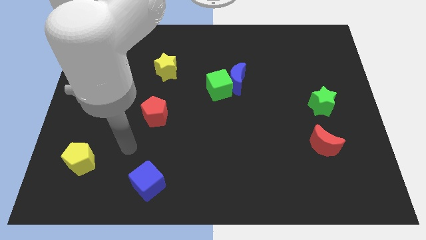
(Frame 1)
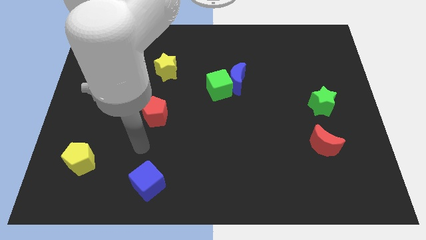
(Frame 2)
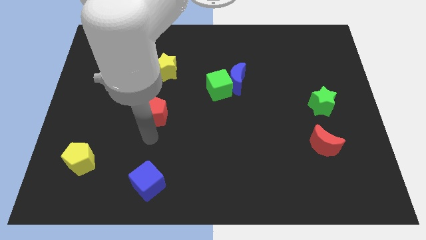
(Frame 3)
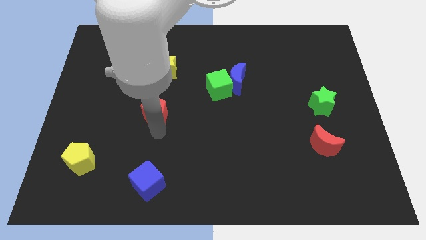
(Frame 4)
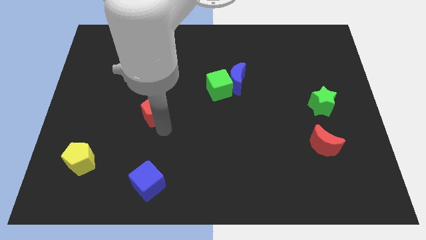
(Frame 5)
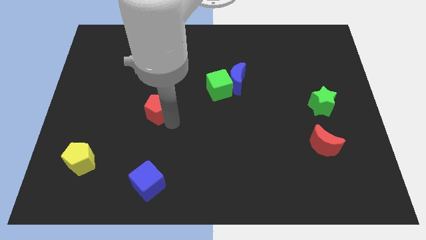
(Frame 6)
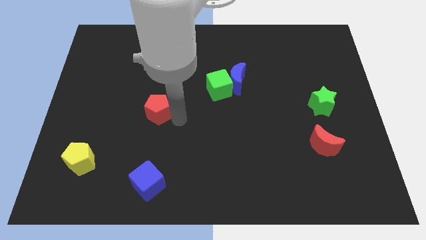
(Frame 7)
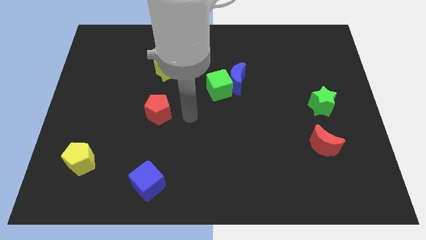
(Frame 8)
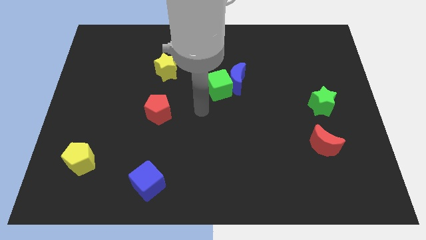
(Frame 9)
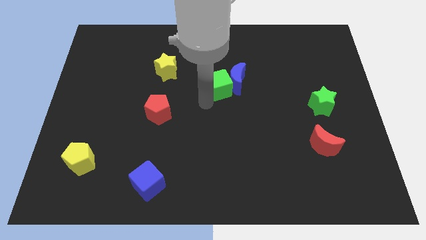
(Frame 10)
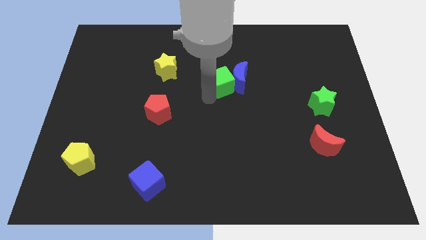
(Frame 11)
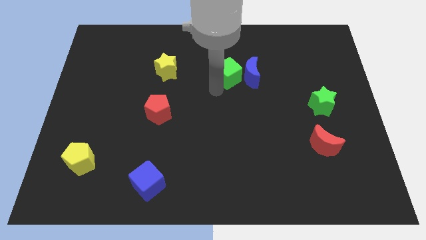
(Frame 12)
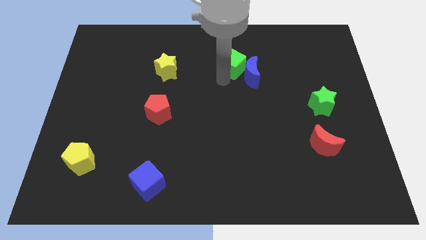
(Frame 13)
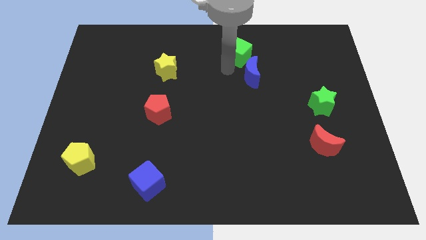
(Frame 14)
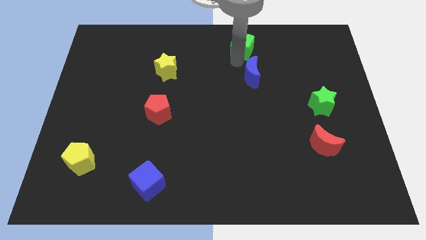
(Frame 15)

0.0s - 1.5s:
move the blue moon away from the green cube

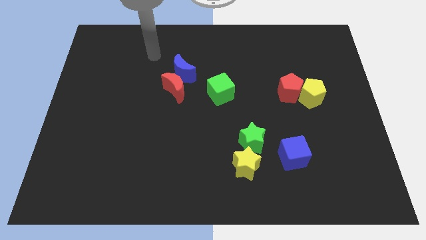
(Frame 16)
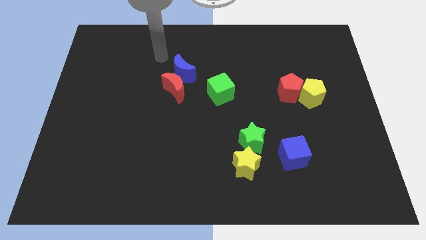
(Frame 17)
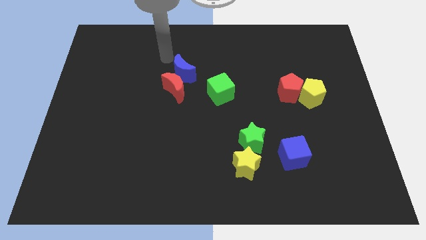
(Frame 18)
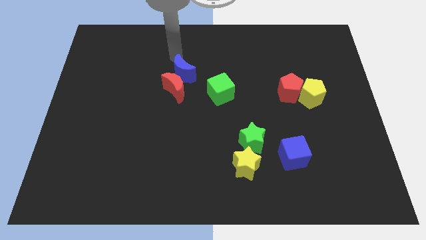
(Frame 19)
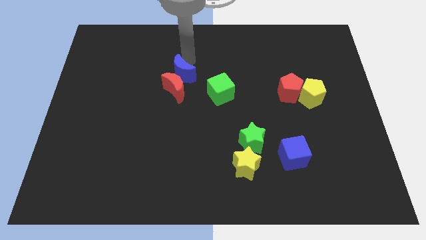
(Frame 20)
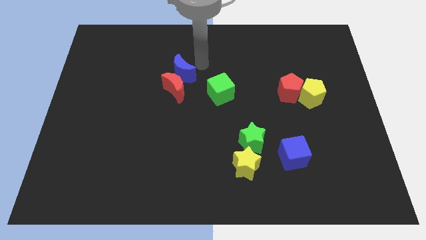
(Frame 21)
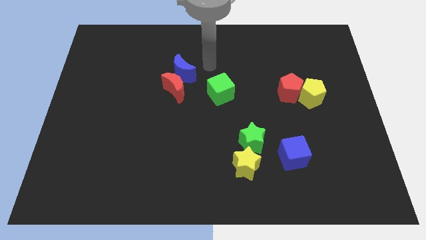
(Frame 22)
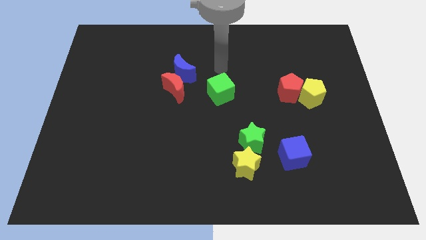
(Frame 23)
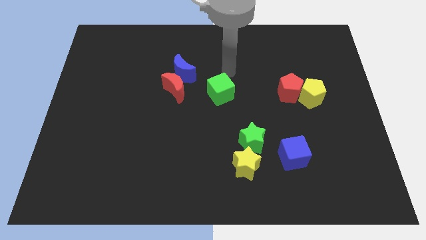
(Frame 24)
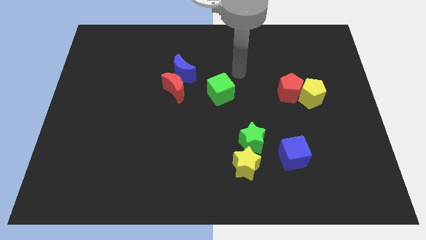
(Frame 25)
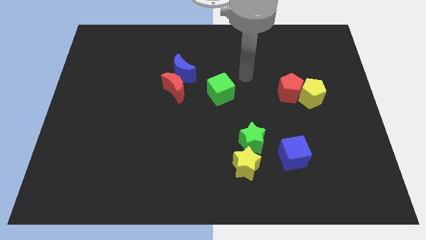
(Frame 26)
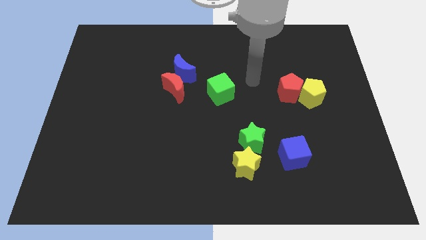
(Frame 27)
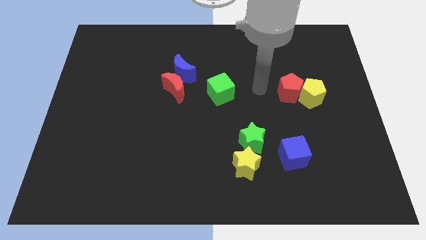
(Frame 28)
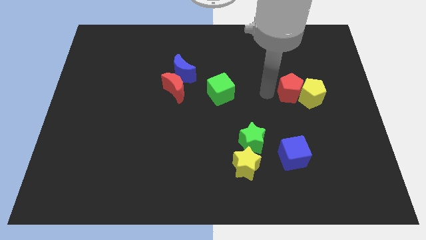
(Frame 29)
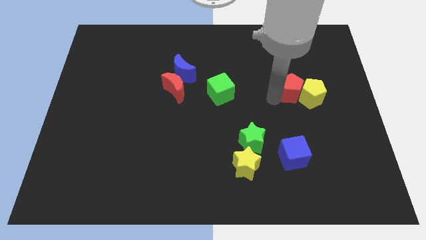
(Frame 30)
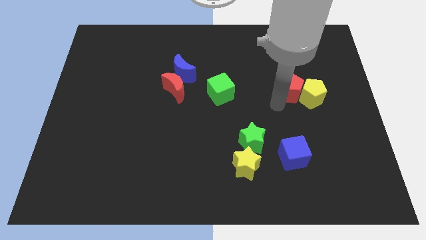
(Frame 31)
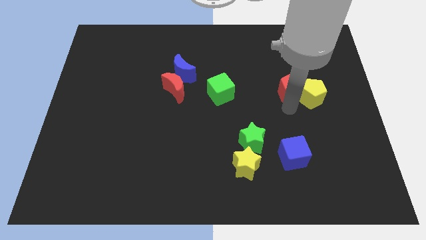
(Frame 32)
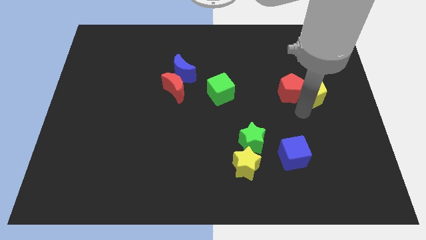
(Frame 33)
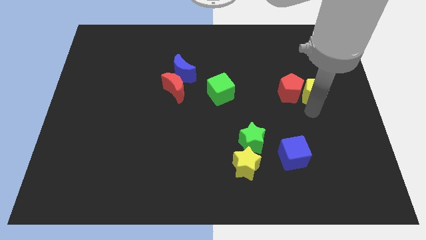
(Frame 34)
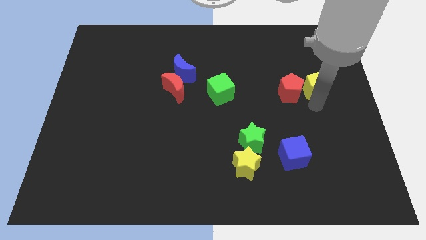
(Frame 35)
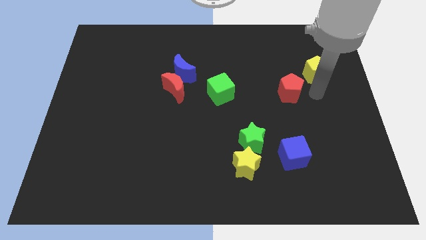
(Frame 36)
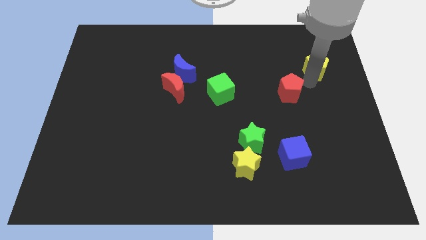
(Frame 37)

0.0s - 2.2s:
pull the red pentagon apart from the yellow pentagon

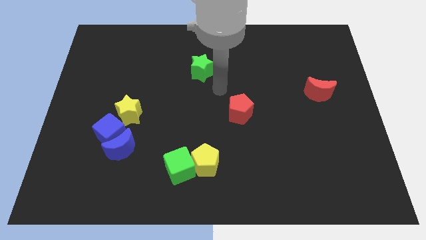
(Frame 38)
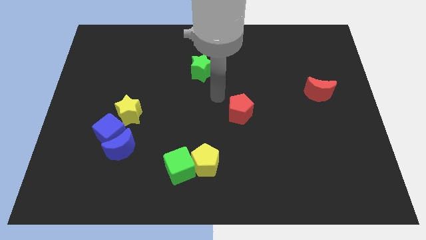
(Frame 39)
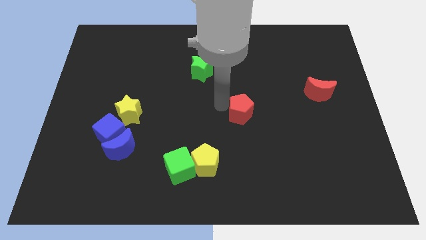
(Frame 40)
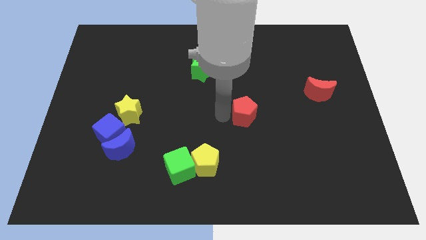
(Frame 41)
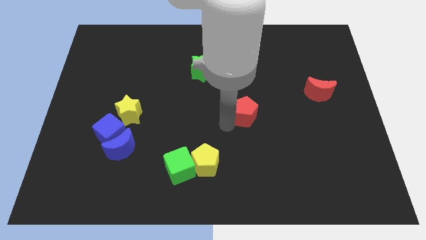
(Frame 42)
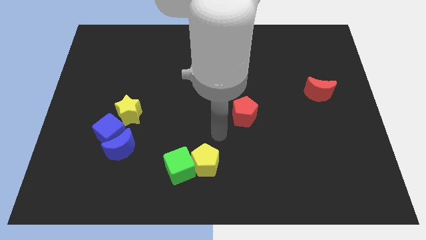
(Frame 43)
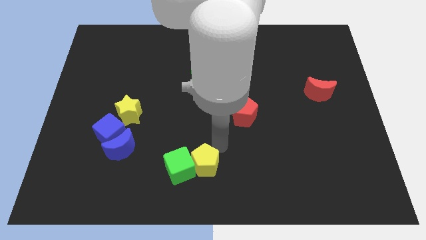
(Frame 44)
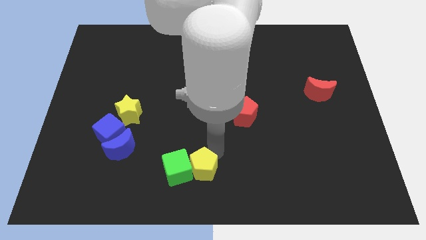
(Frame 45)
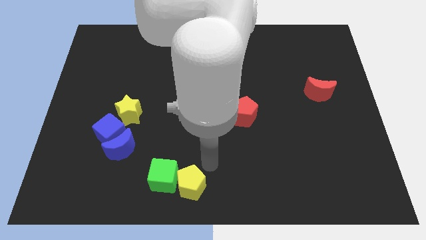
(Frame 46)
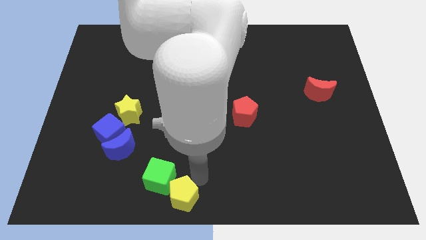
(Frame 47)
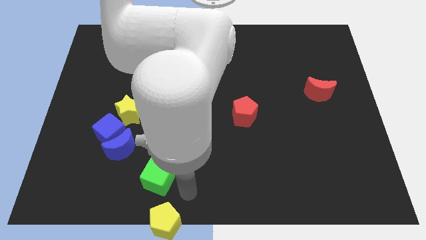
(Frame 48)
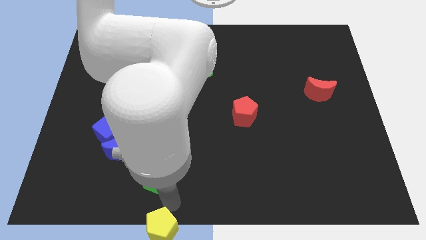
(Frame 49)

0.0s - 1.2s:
separate the green cube from the yellow pentagon

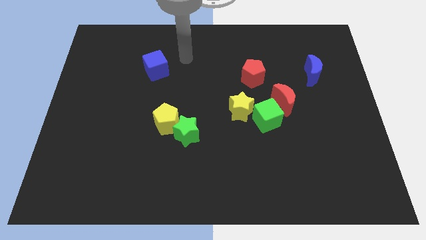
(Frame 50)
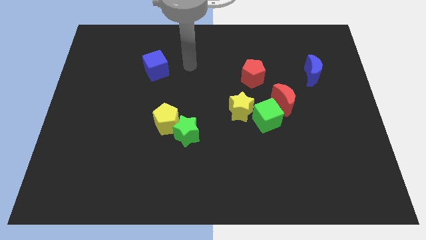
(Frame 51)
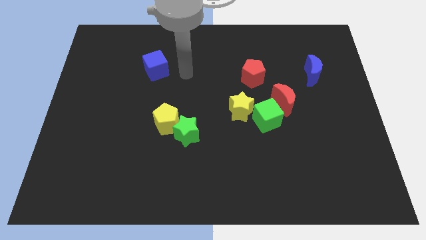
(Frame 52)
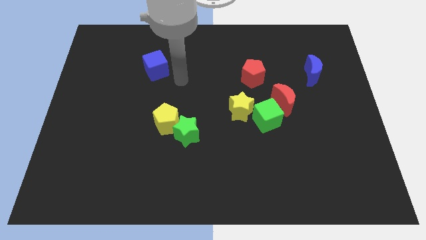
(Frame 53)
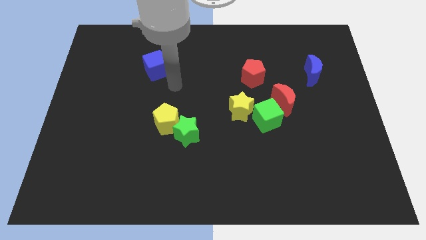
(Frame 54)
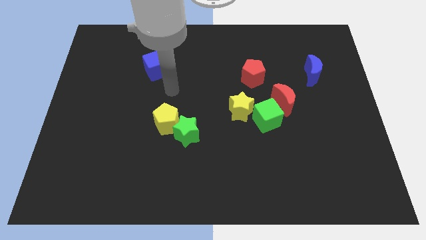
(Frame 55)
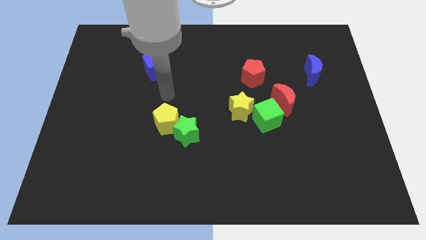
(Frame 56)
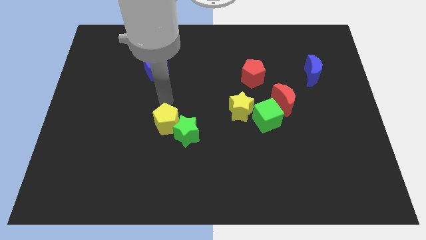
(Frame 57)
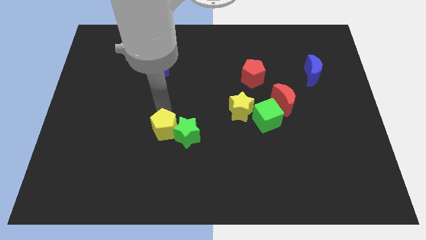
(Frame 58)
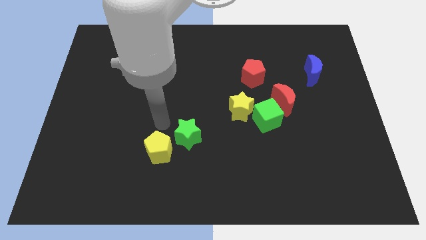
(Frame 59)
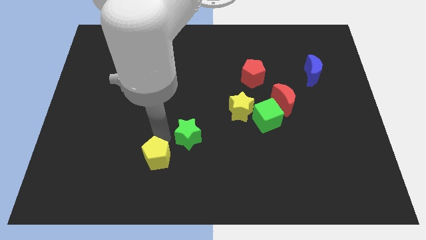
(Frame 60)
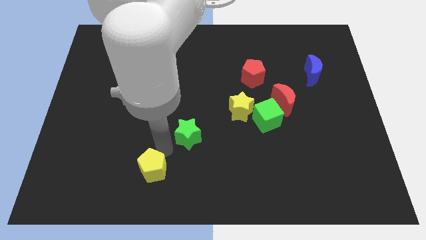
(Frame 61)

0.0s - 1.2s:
separate the green star from the yellow pentagon

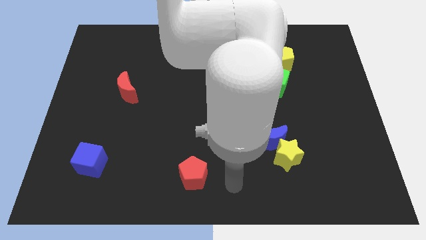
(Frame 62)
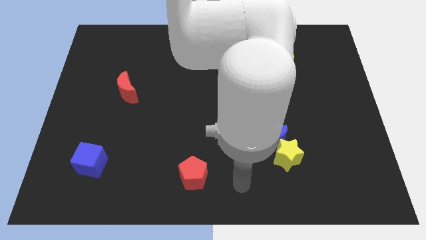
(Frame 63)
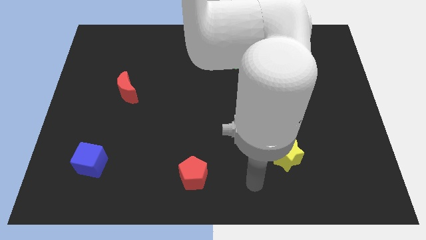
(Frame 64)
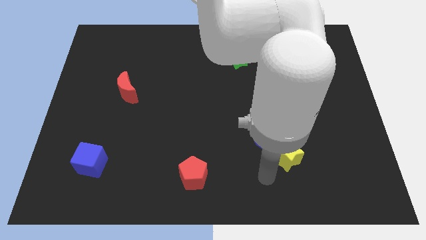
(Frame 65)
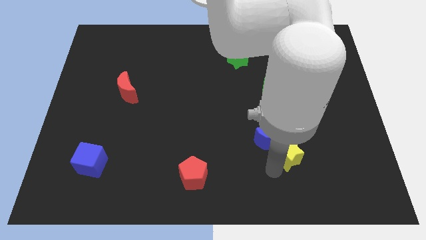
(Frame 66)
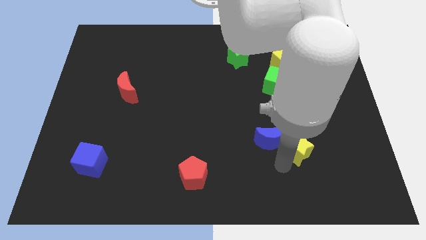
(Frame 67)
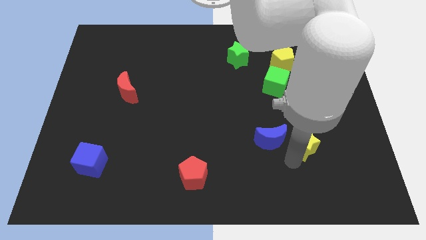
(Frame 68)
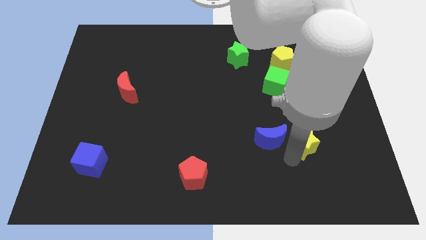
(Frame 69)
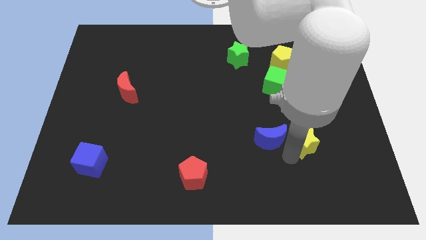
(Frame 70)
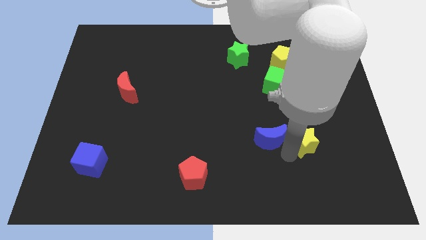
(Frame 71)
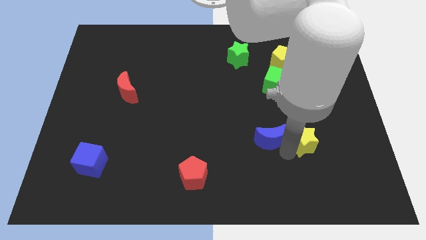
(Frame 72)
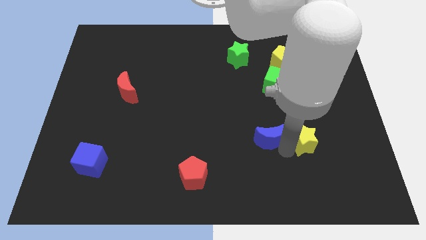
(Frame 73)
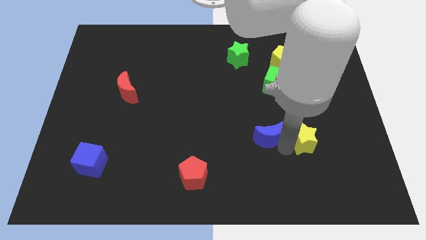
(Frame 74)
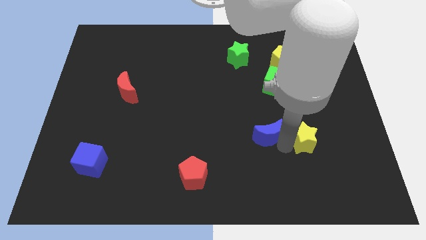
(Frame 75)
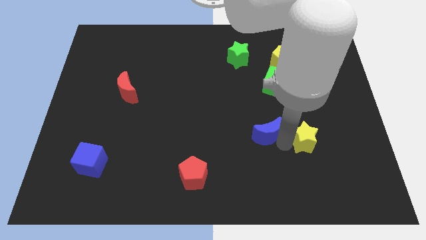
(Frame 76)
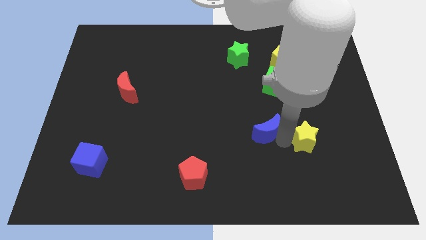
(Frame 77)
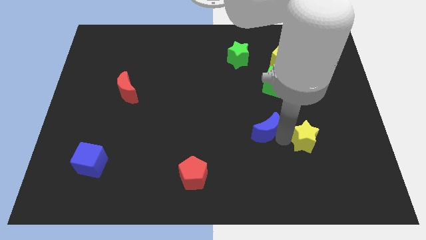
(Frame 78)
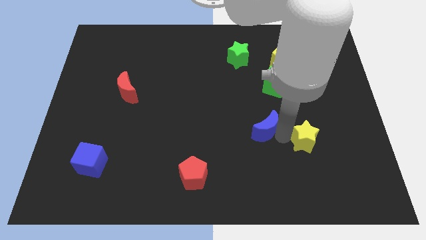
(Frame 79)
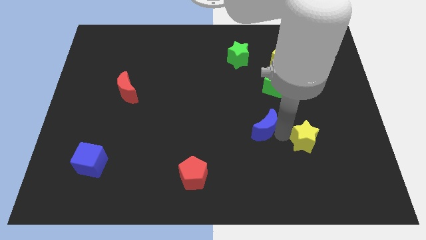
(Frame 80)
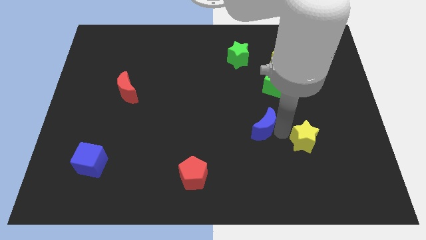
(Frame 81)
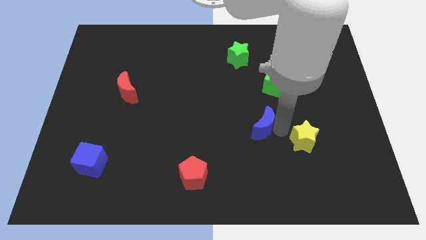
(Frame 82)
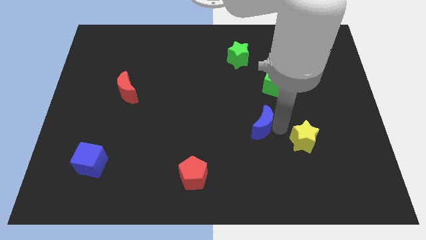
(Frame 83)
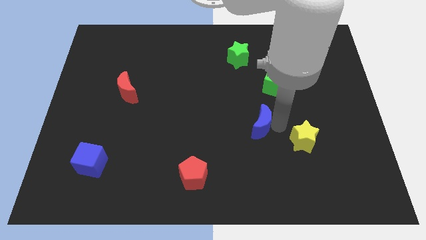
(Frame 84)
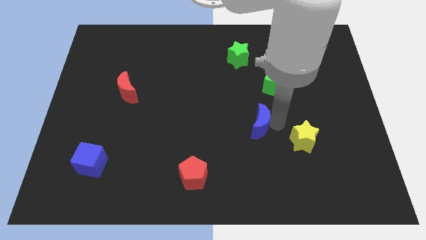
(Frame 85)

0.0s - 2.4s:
separate the blue moon from the yellow star

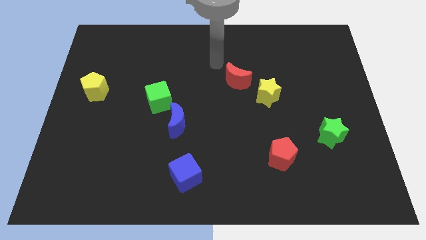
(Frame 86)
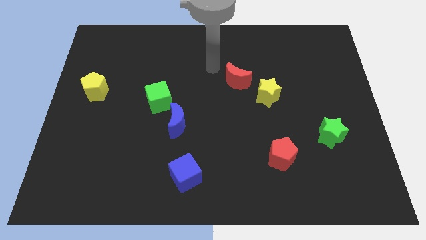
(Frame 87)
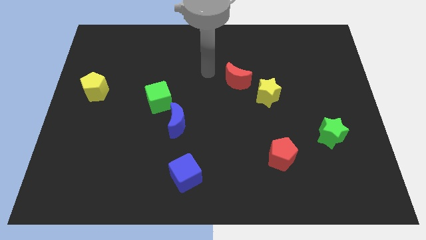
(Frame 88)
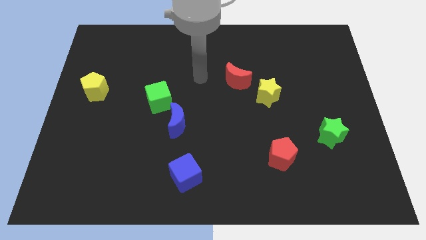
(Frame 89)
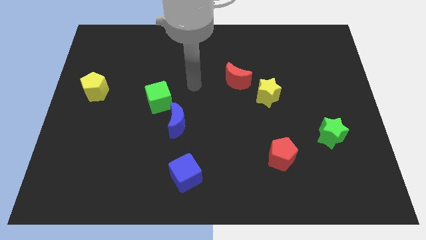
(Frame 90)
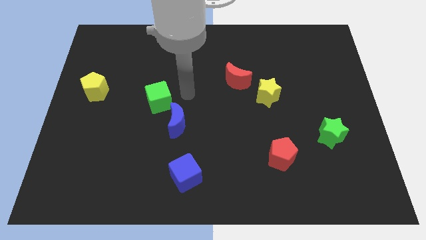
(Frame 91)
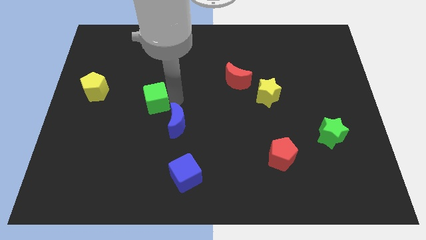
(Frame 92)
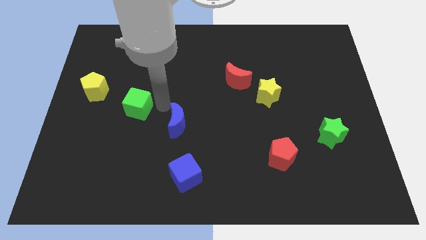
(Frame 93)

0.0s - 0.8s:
pull the blue moon apart from the green cube
